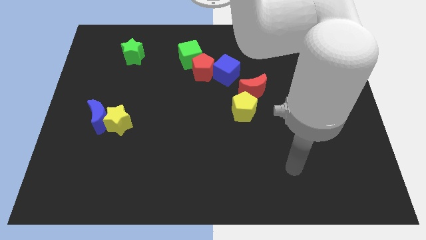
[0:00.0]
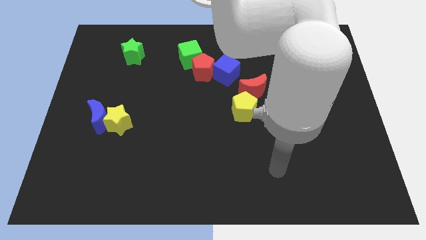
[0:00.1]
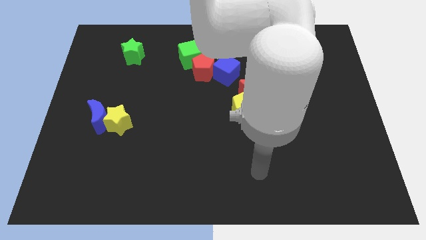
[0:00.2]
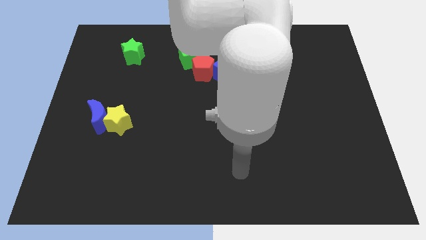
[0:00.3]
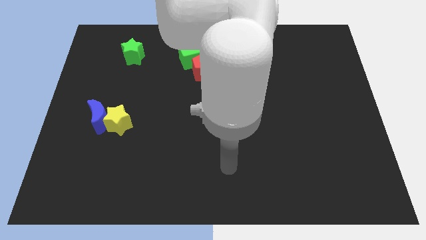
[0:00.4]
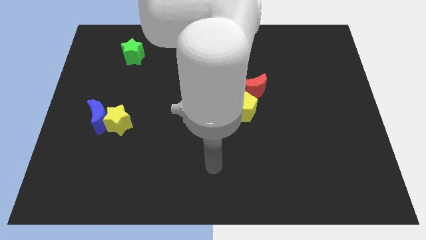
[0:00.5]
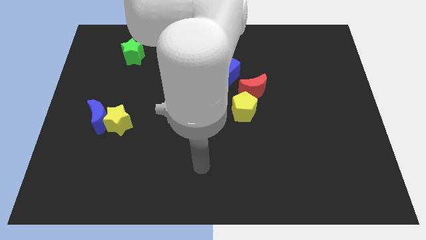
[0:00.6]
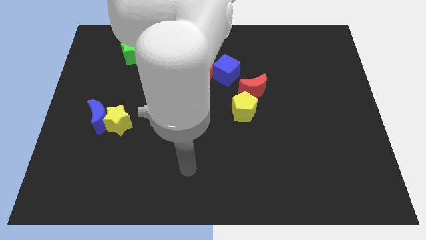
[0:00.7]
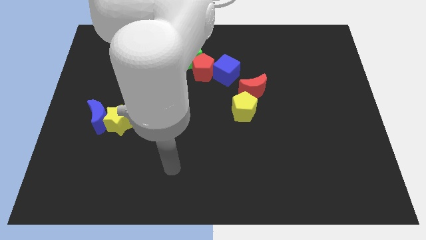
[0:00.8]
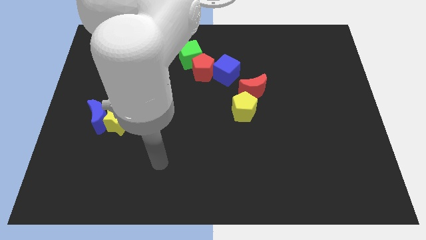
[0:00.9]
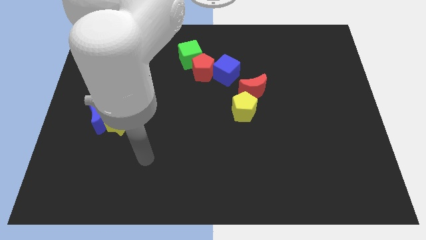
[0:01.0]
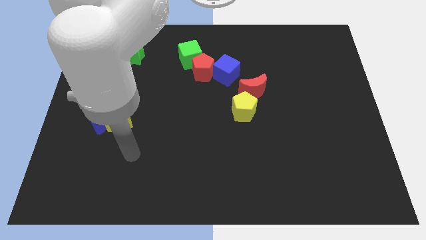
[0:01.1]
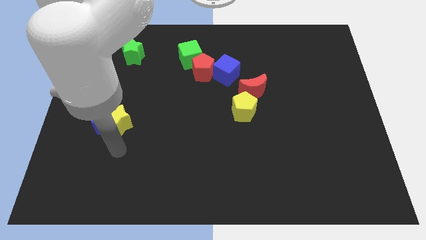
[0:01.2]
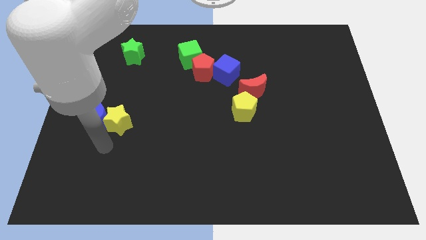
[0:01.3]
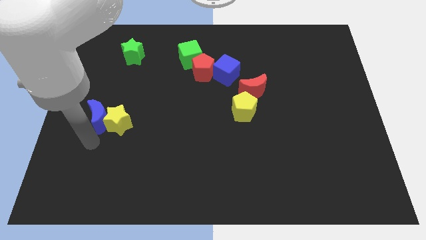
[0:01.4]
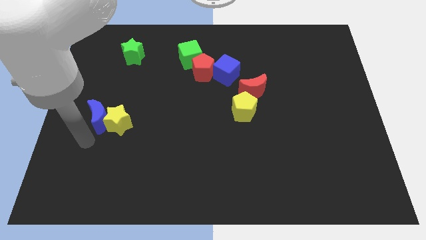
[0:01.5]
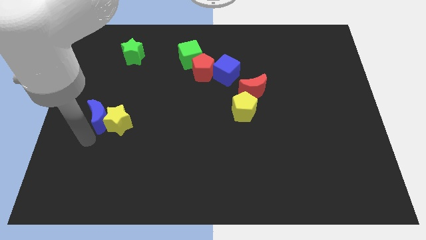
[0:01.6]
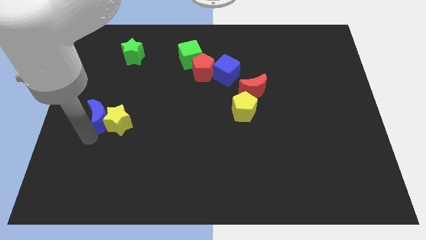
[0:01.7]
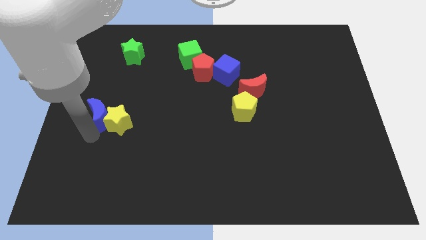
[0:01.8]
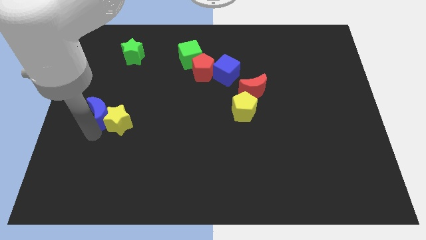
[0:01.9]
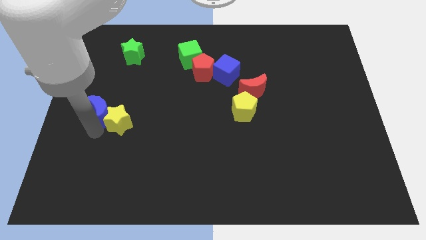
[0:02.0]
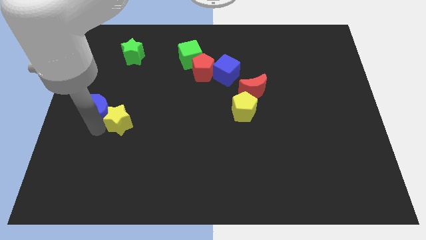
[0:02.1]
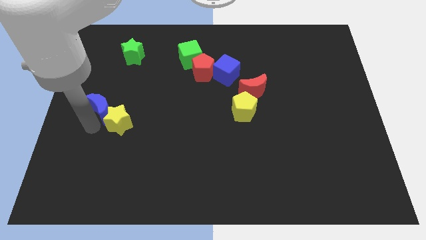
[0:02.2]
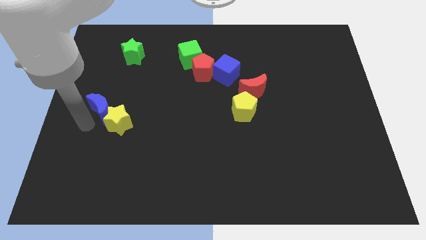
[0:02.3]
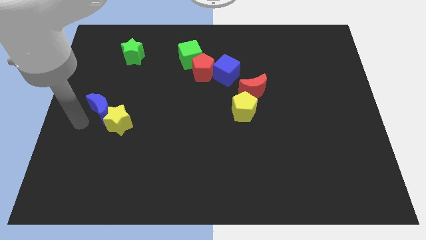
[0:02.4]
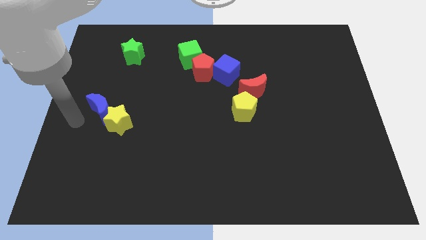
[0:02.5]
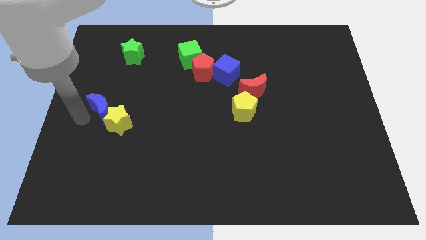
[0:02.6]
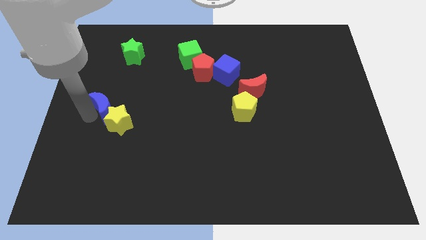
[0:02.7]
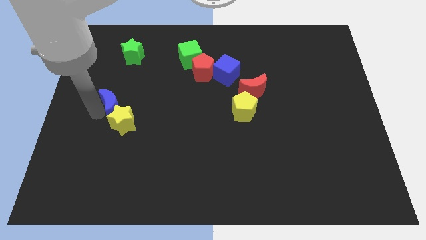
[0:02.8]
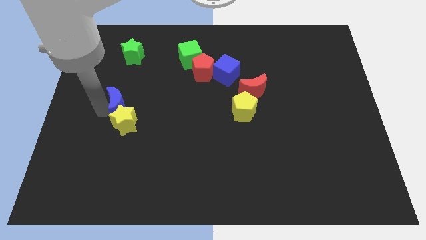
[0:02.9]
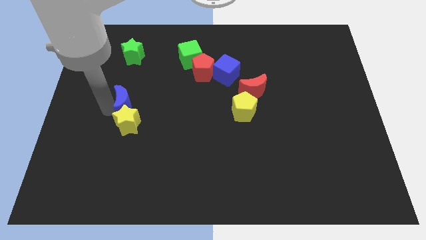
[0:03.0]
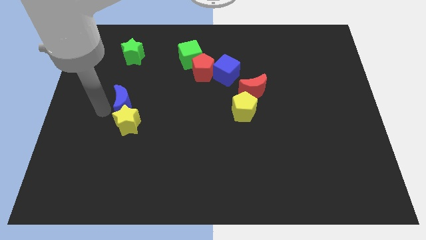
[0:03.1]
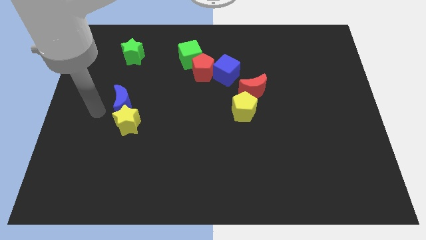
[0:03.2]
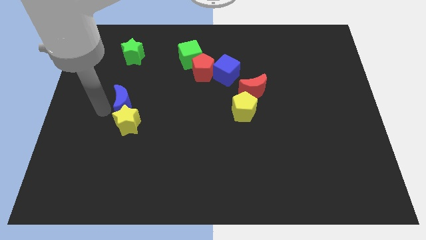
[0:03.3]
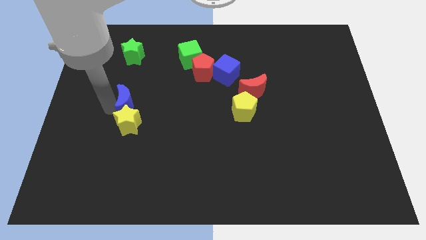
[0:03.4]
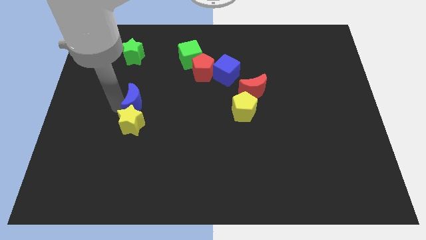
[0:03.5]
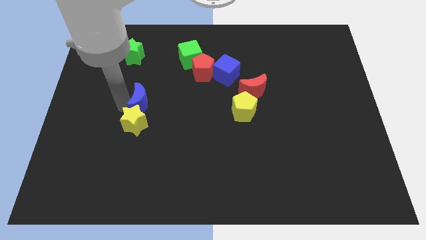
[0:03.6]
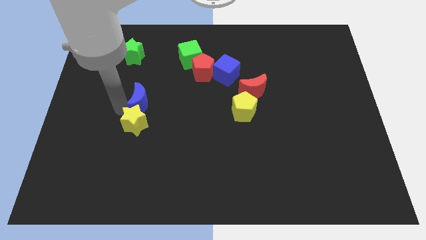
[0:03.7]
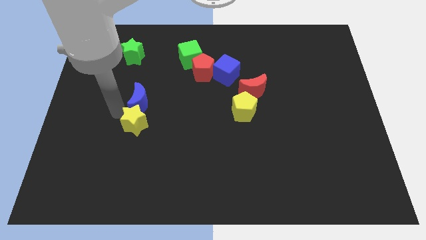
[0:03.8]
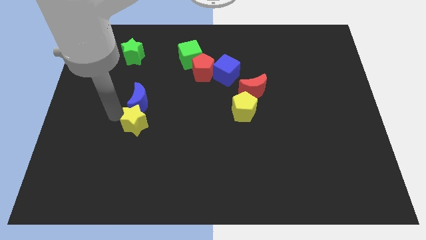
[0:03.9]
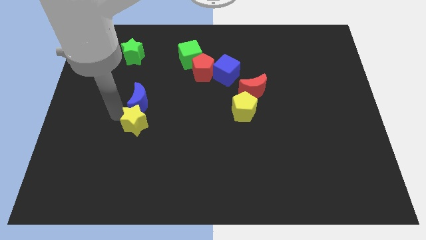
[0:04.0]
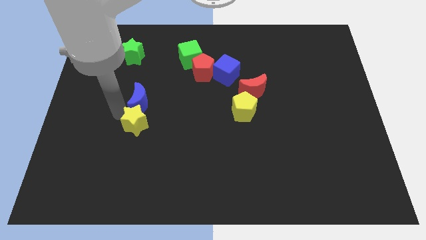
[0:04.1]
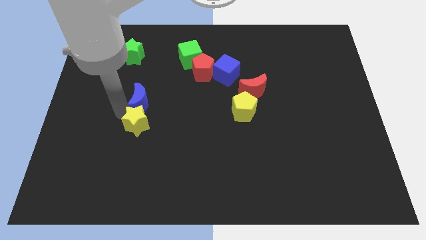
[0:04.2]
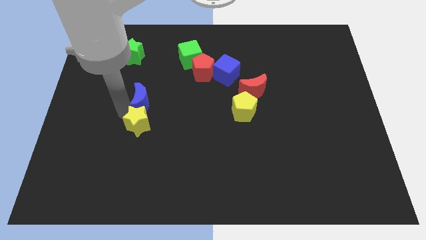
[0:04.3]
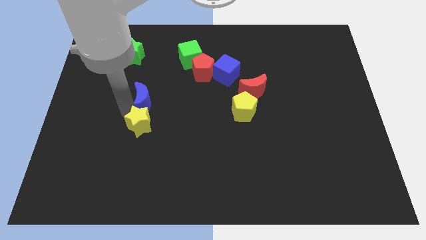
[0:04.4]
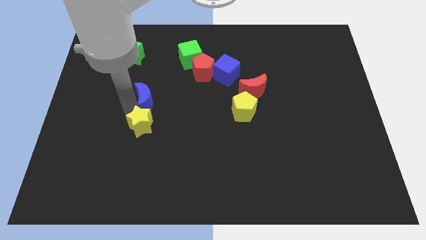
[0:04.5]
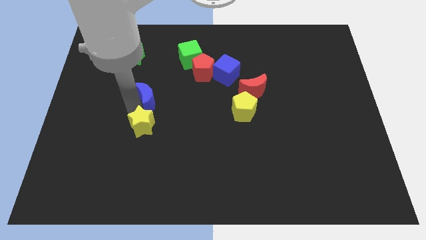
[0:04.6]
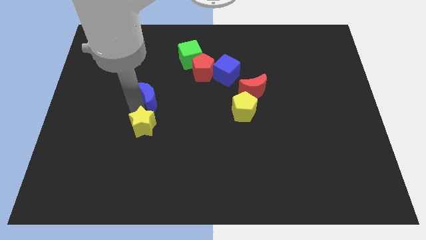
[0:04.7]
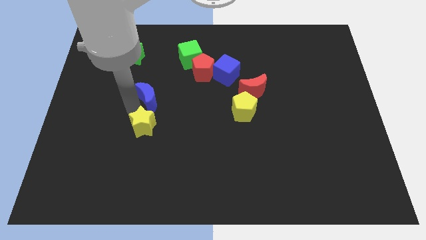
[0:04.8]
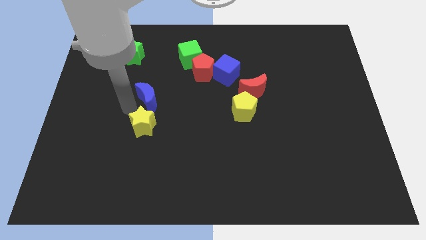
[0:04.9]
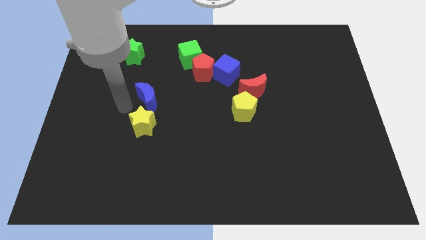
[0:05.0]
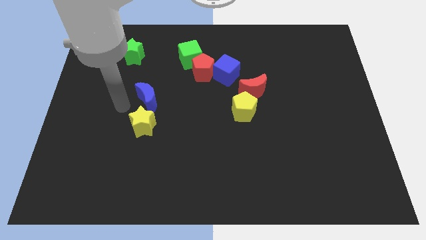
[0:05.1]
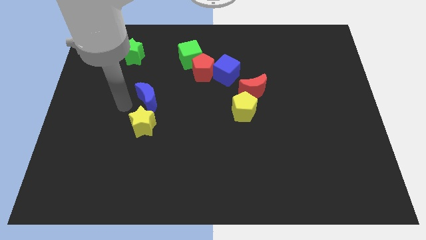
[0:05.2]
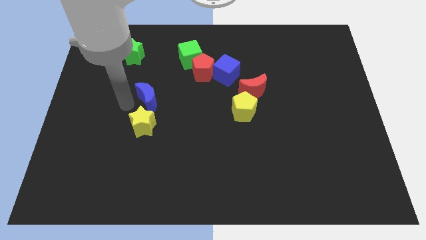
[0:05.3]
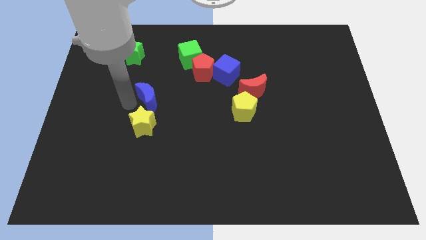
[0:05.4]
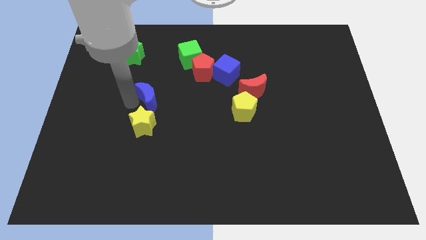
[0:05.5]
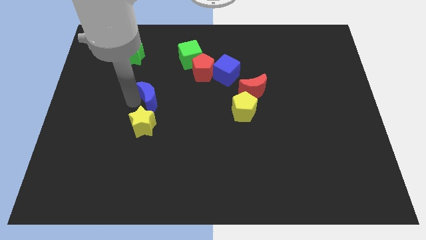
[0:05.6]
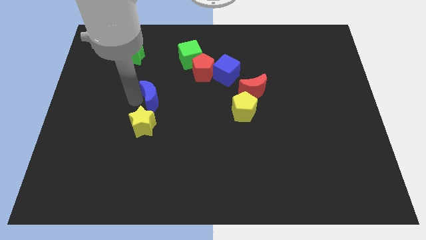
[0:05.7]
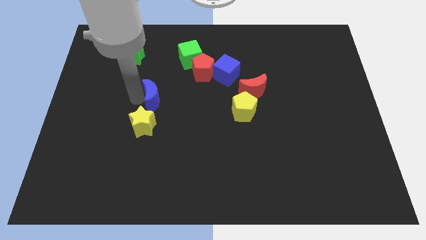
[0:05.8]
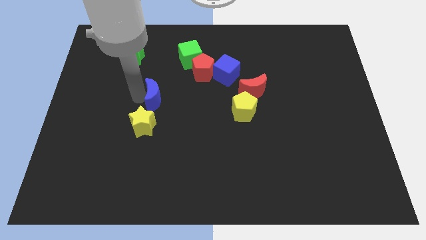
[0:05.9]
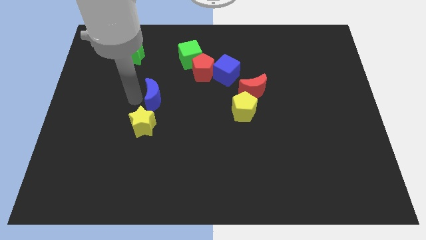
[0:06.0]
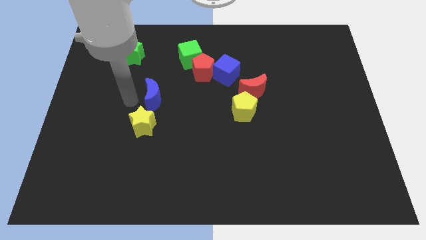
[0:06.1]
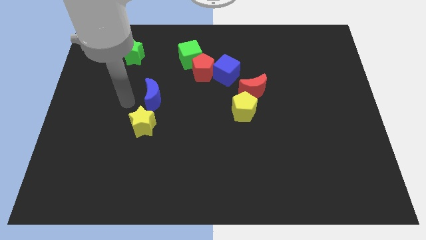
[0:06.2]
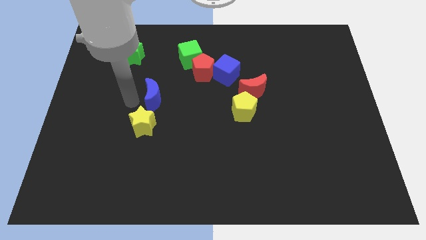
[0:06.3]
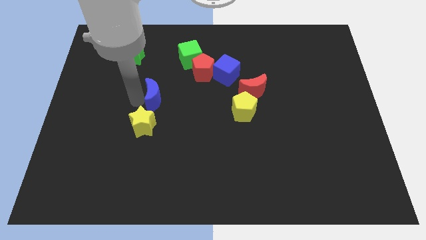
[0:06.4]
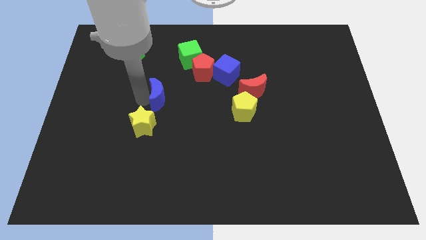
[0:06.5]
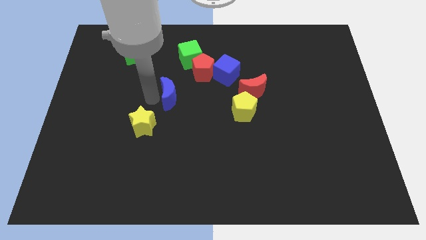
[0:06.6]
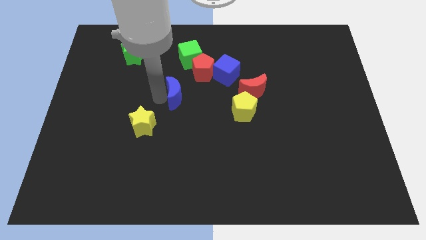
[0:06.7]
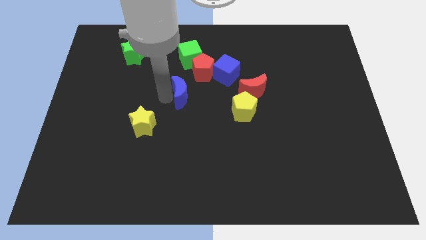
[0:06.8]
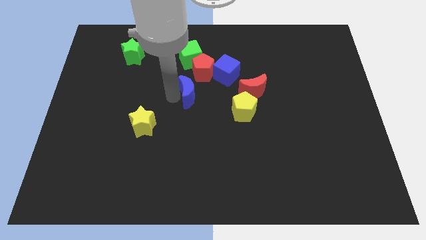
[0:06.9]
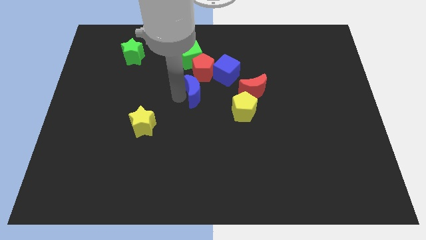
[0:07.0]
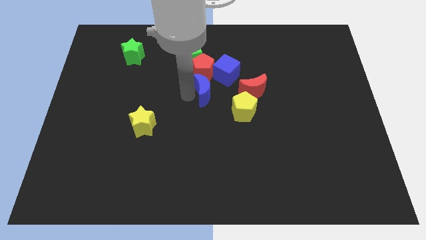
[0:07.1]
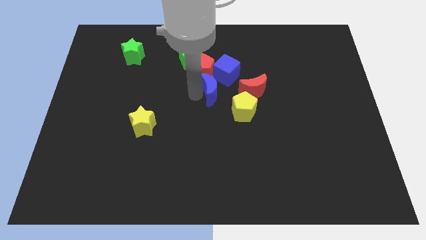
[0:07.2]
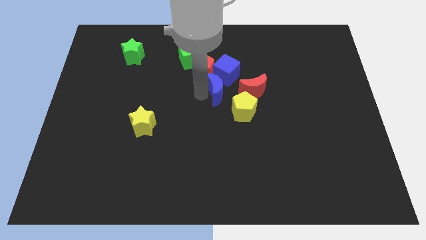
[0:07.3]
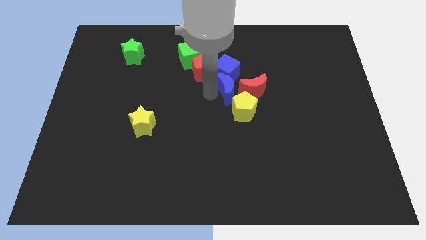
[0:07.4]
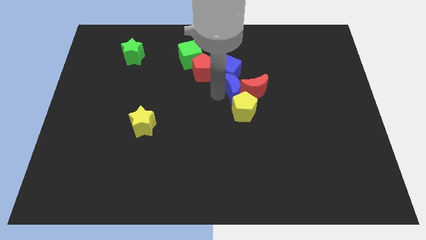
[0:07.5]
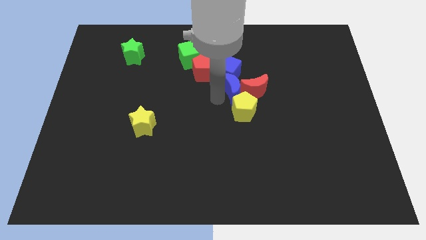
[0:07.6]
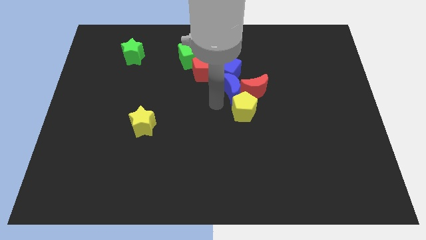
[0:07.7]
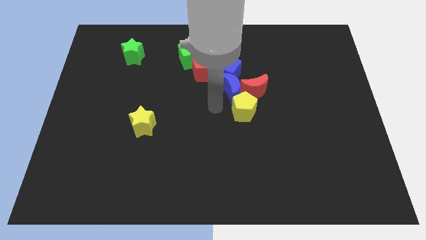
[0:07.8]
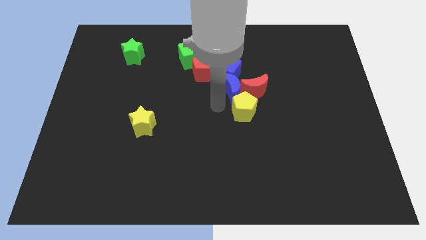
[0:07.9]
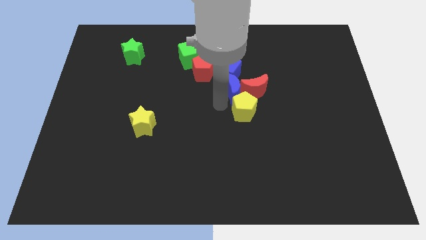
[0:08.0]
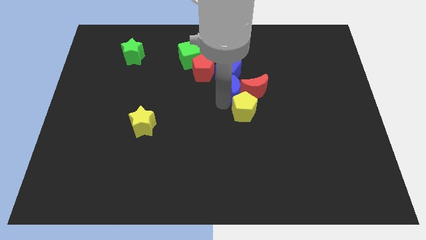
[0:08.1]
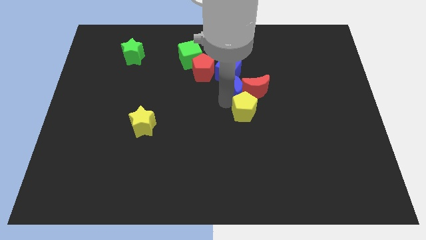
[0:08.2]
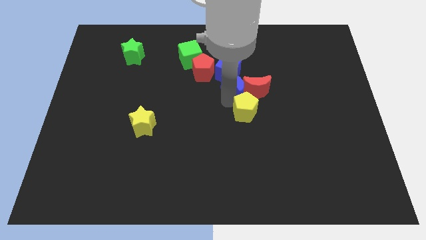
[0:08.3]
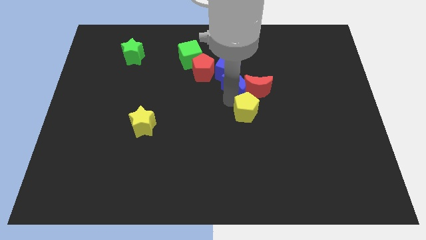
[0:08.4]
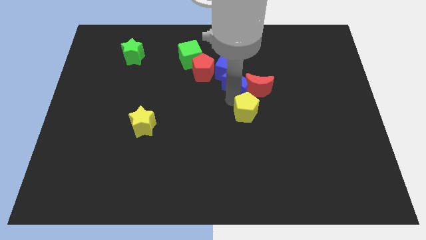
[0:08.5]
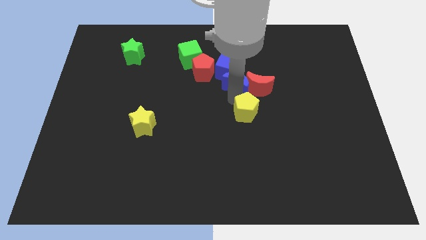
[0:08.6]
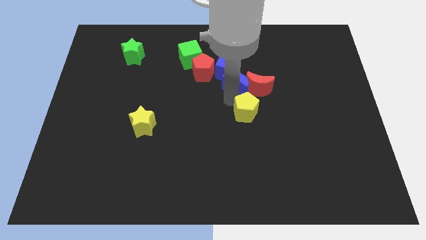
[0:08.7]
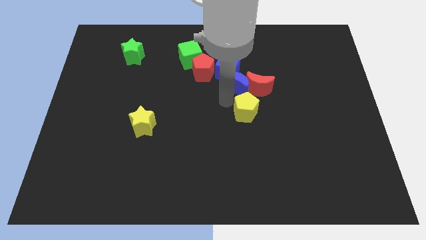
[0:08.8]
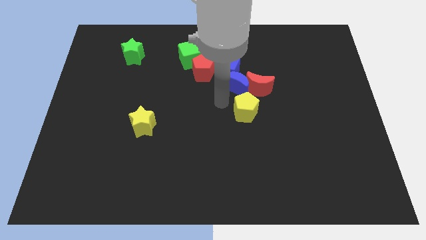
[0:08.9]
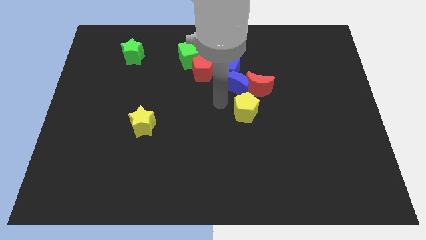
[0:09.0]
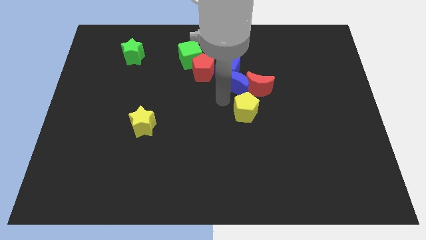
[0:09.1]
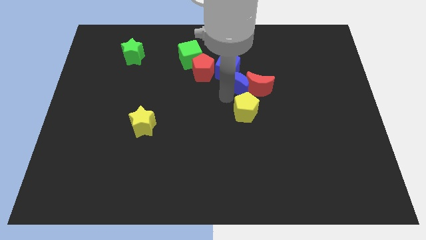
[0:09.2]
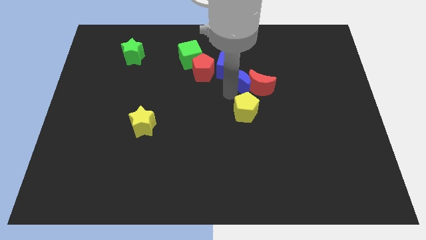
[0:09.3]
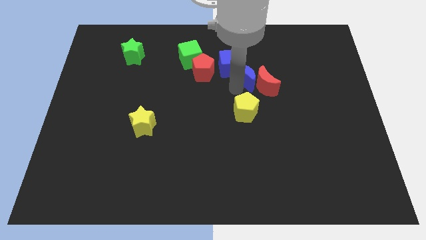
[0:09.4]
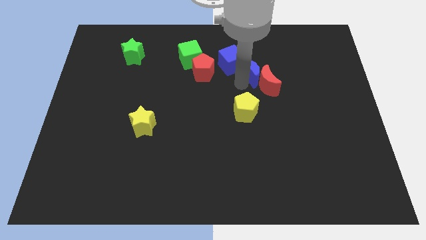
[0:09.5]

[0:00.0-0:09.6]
slide the blue moon above the red moon
